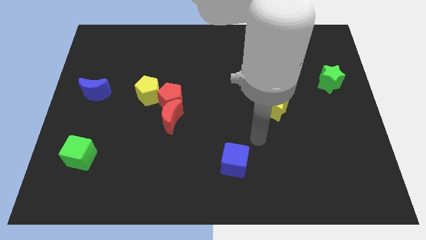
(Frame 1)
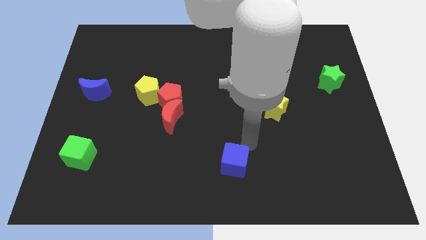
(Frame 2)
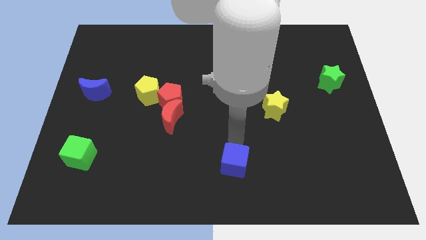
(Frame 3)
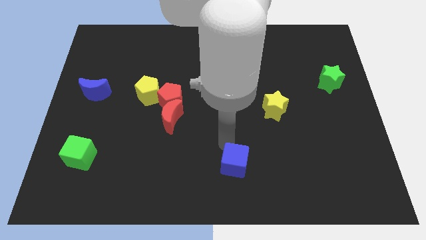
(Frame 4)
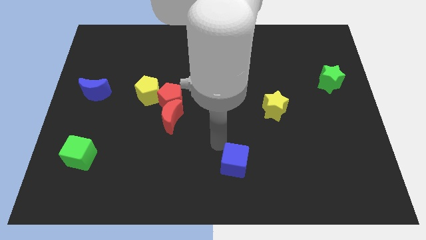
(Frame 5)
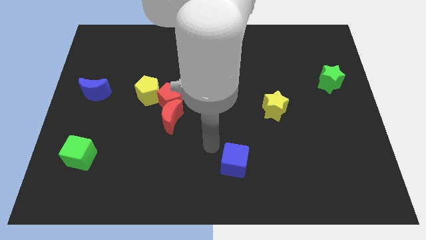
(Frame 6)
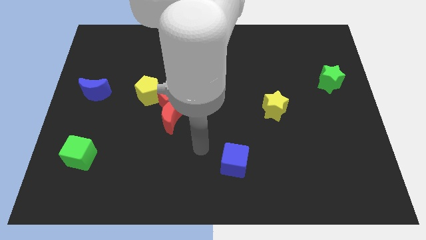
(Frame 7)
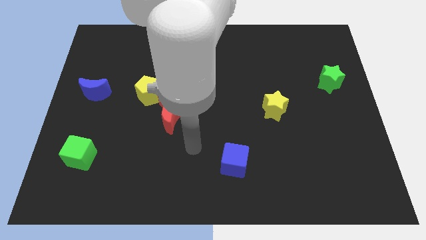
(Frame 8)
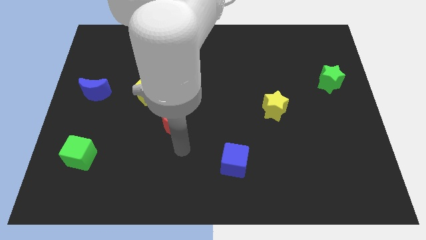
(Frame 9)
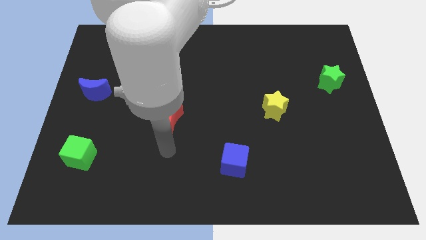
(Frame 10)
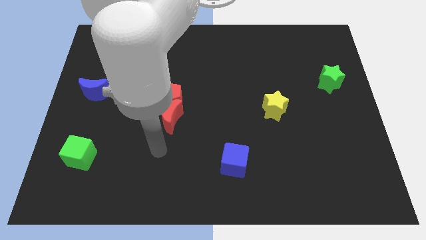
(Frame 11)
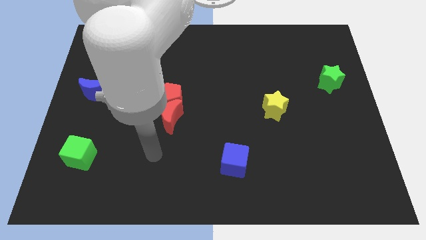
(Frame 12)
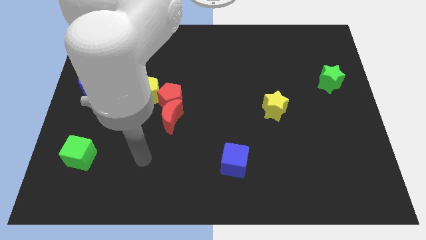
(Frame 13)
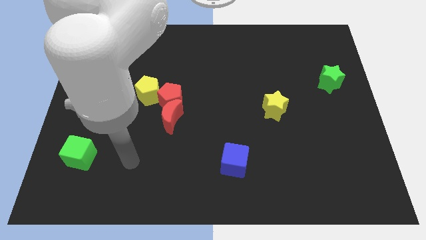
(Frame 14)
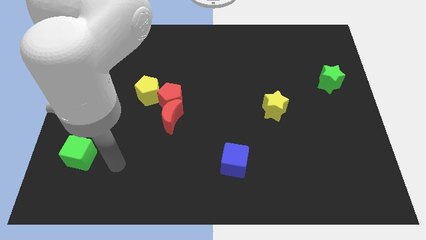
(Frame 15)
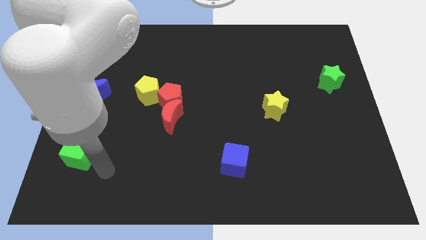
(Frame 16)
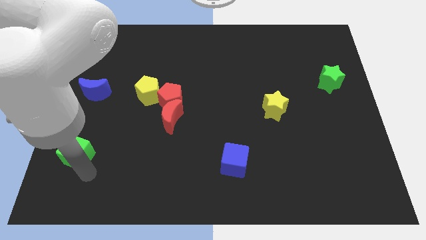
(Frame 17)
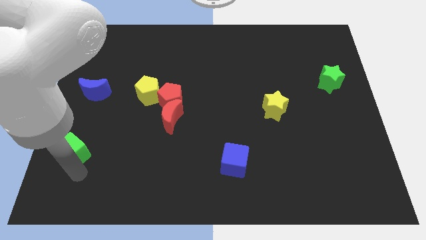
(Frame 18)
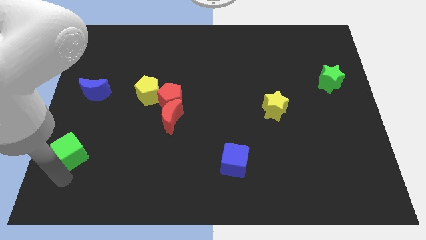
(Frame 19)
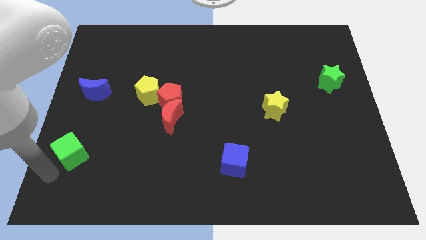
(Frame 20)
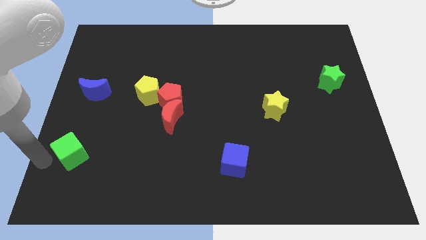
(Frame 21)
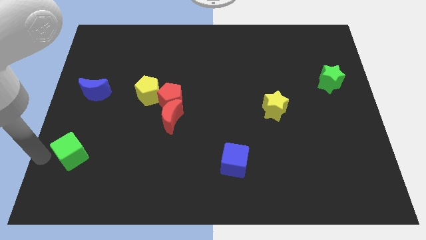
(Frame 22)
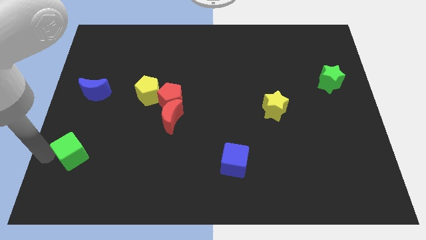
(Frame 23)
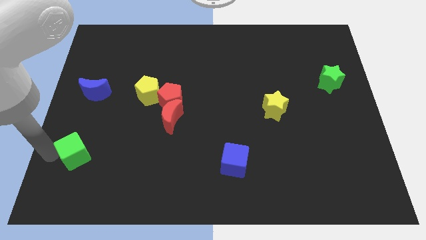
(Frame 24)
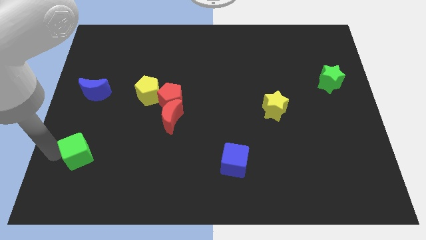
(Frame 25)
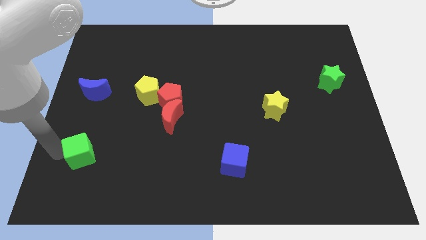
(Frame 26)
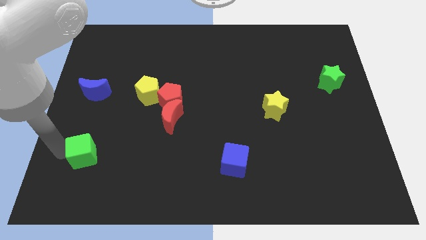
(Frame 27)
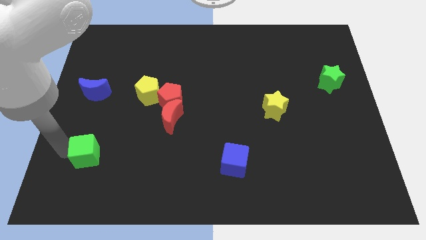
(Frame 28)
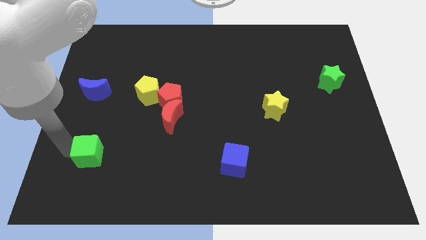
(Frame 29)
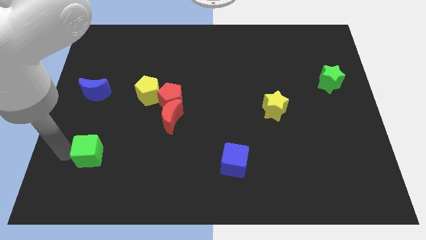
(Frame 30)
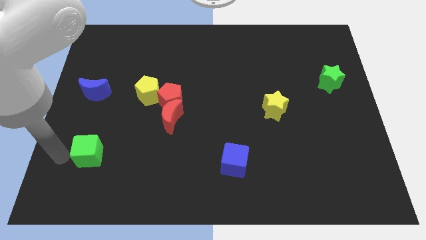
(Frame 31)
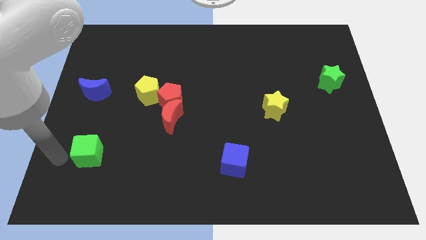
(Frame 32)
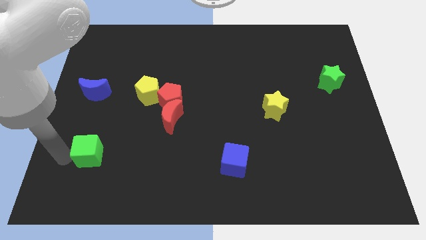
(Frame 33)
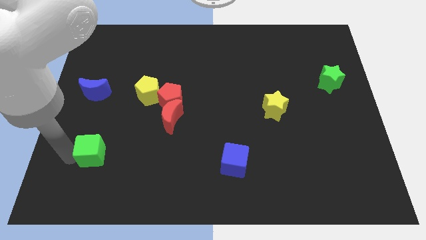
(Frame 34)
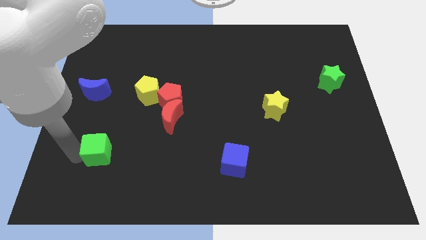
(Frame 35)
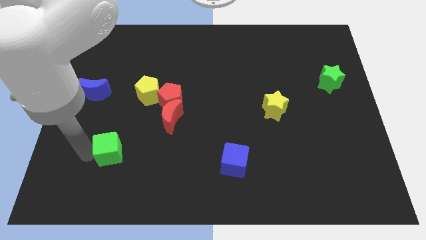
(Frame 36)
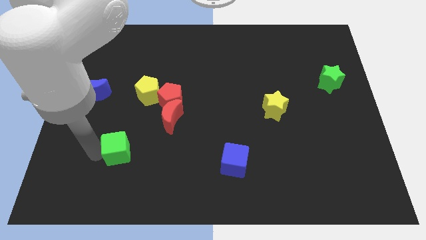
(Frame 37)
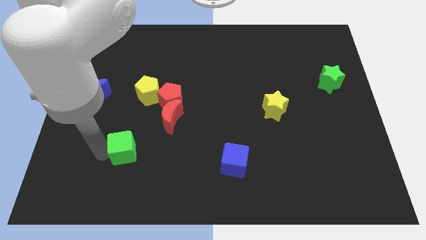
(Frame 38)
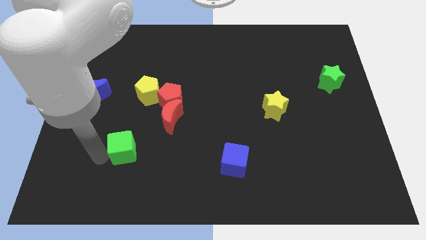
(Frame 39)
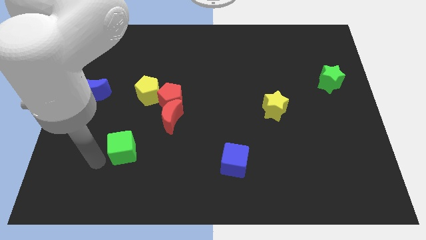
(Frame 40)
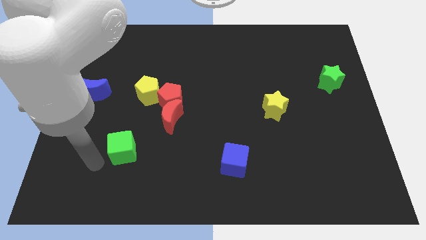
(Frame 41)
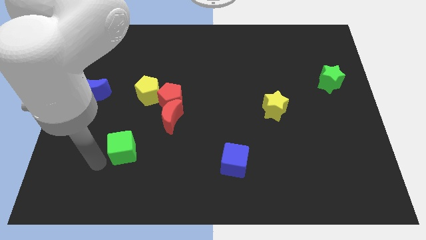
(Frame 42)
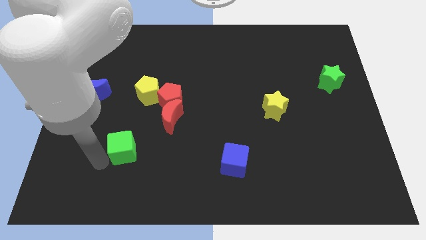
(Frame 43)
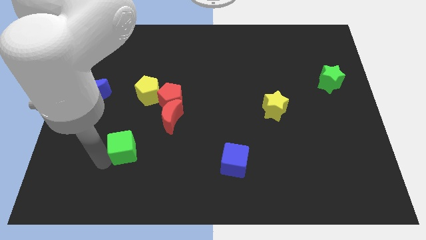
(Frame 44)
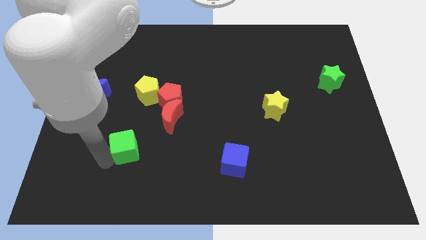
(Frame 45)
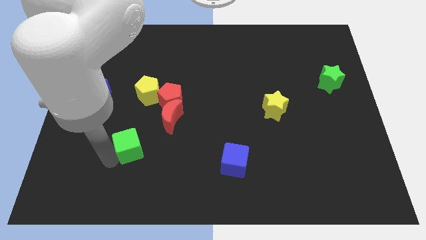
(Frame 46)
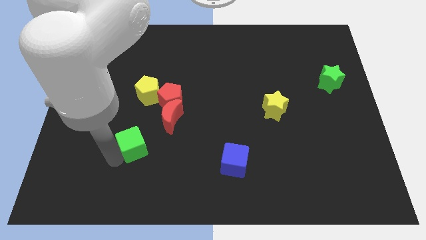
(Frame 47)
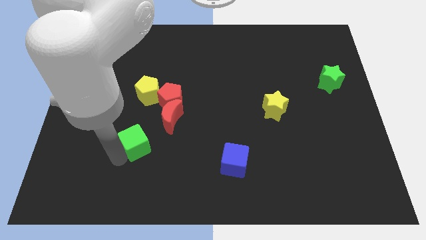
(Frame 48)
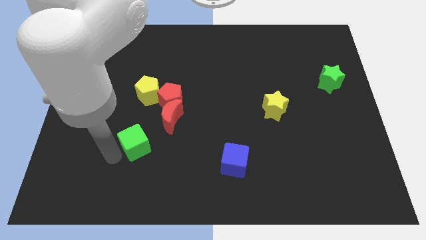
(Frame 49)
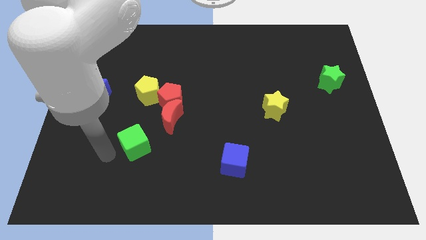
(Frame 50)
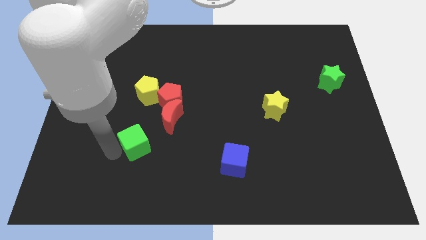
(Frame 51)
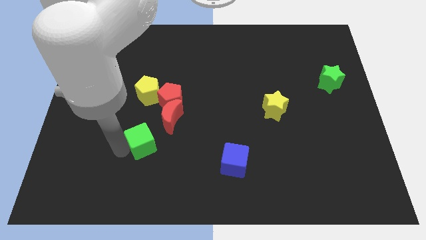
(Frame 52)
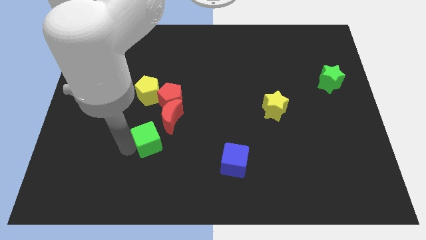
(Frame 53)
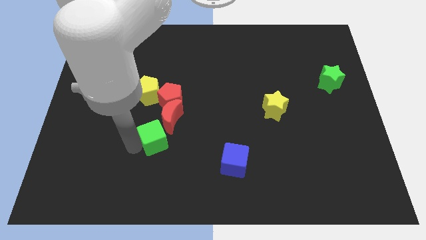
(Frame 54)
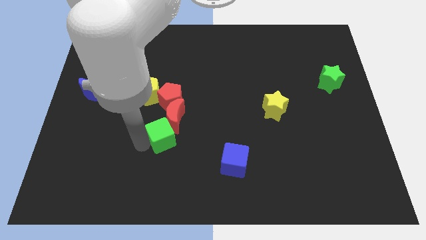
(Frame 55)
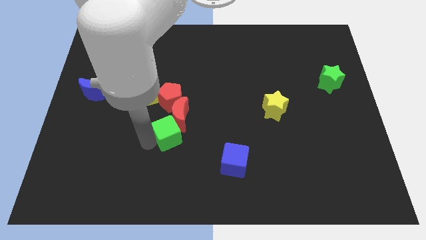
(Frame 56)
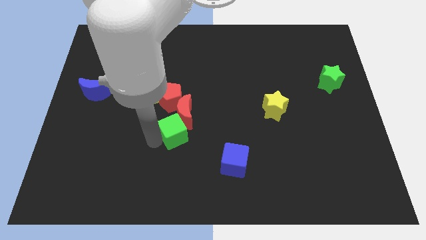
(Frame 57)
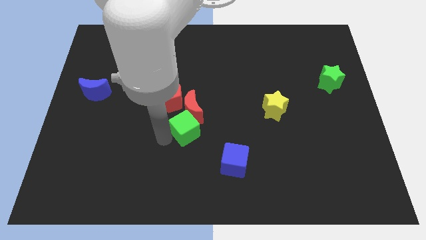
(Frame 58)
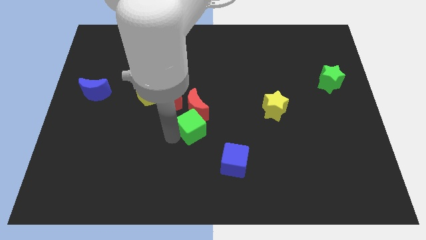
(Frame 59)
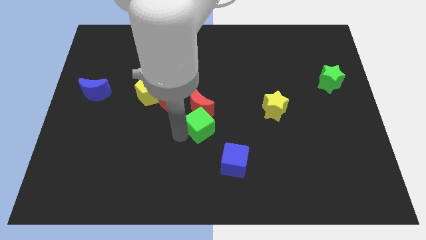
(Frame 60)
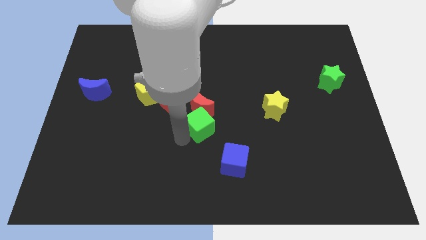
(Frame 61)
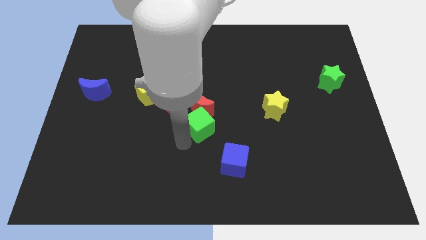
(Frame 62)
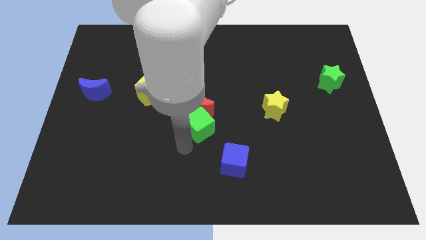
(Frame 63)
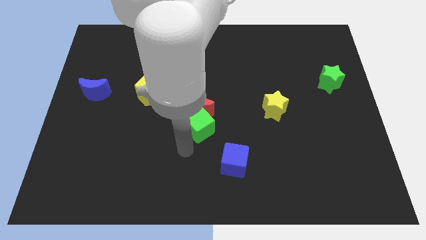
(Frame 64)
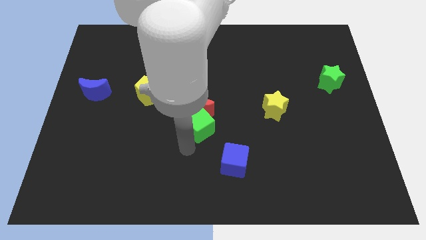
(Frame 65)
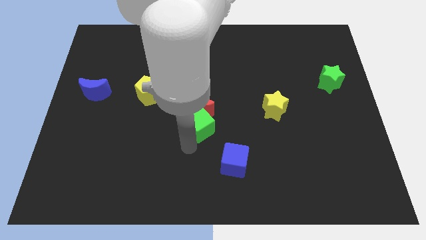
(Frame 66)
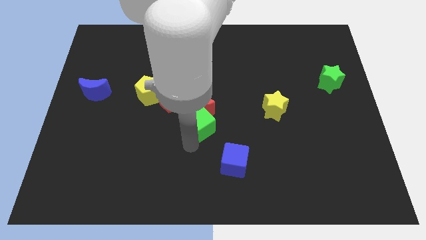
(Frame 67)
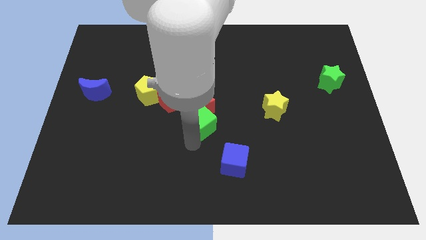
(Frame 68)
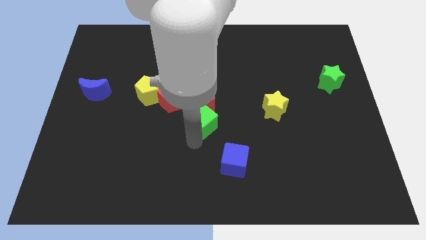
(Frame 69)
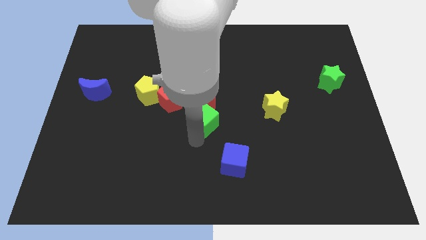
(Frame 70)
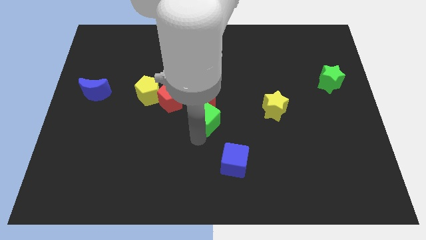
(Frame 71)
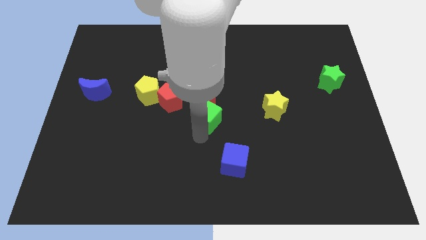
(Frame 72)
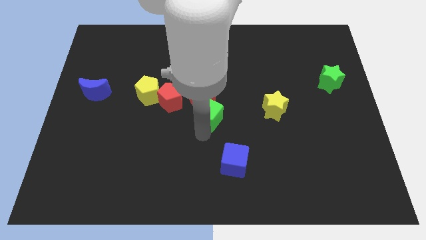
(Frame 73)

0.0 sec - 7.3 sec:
move the green cube to the right of the red pentagon
